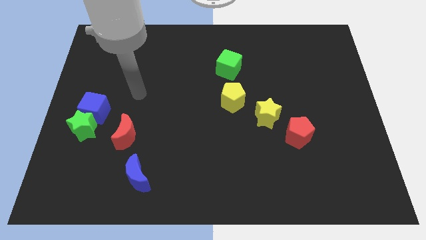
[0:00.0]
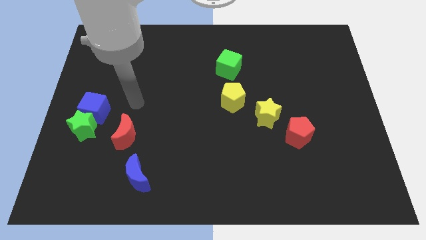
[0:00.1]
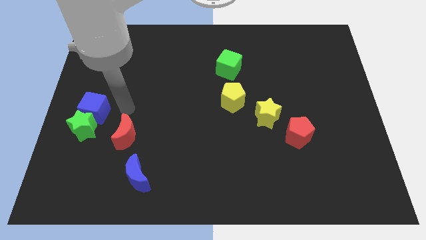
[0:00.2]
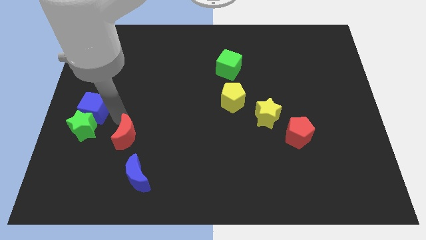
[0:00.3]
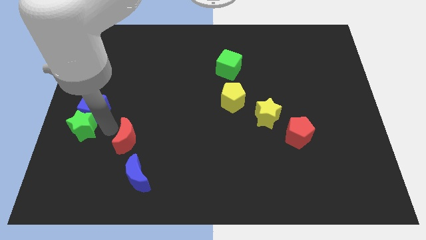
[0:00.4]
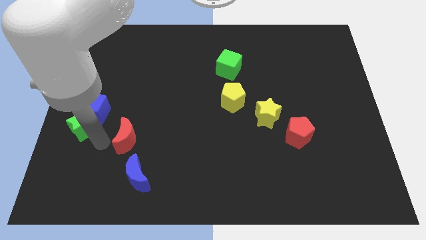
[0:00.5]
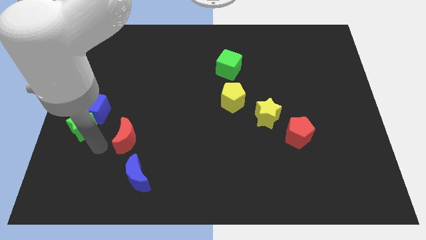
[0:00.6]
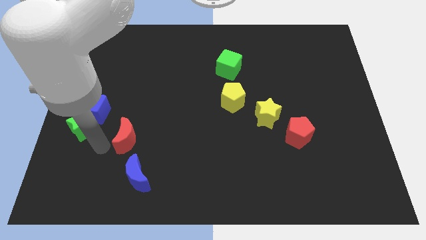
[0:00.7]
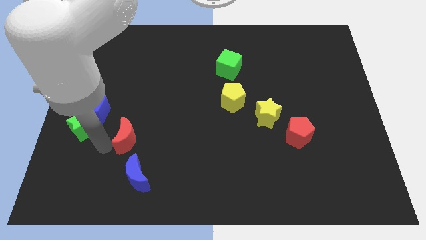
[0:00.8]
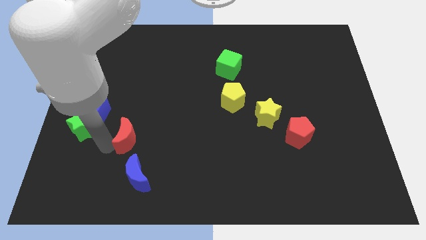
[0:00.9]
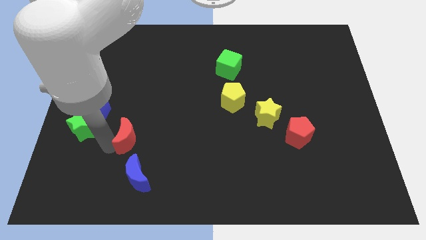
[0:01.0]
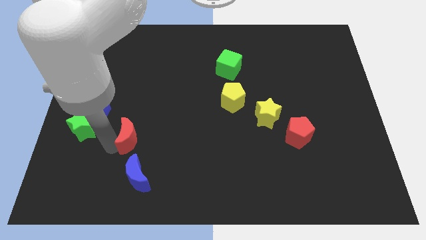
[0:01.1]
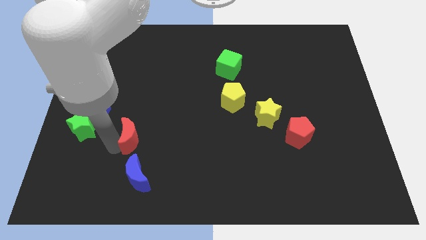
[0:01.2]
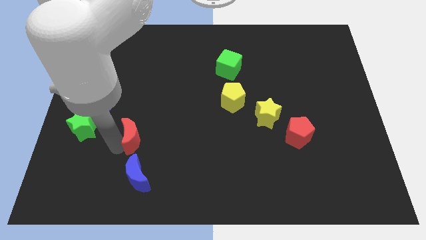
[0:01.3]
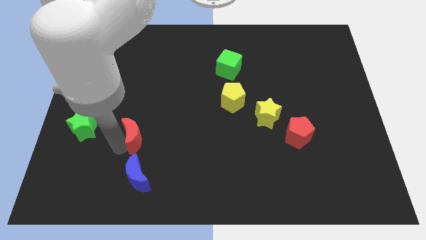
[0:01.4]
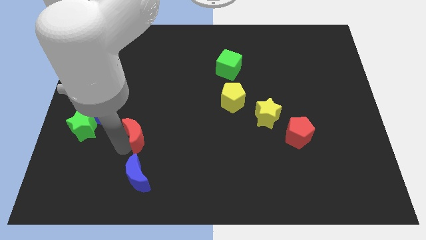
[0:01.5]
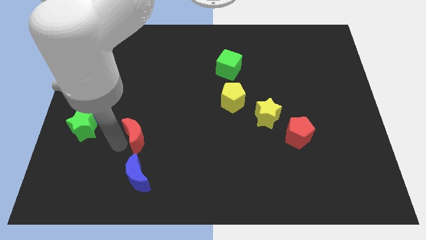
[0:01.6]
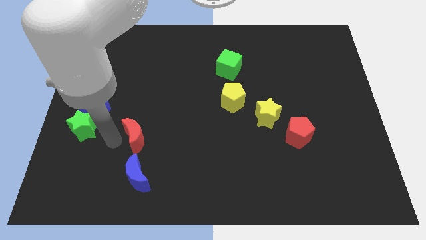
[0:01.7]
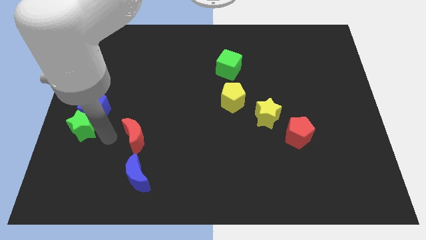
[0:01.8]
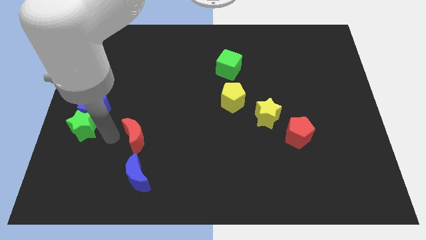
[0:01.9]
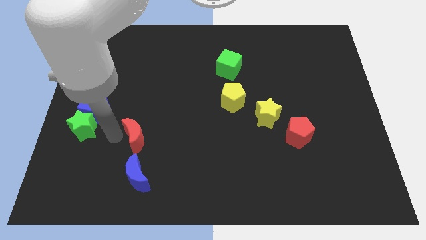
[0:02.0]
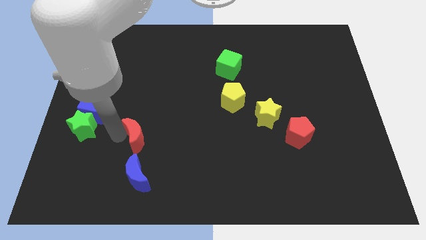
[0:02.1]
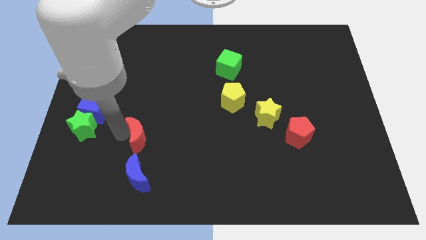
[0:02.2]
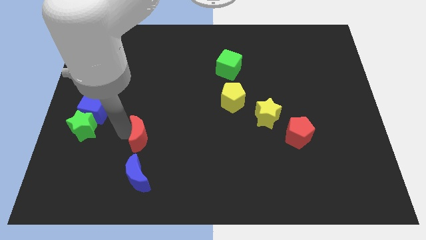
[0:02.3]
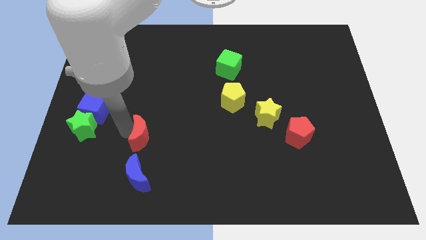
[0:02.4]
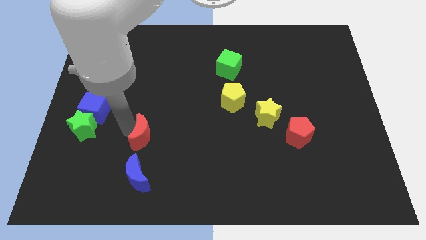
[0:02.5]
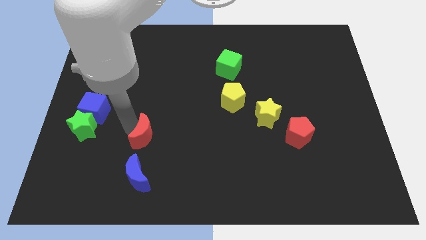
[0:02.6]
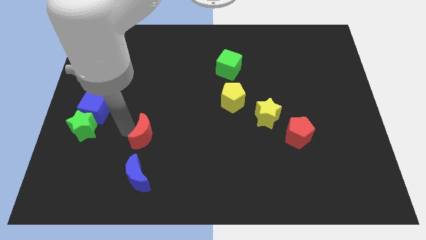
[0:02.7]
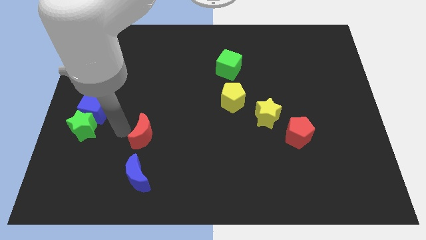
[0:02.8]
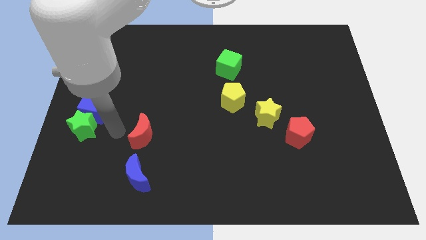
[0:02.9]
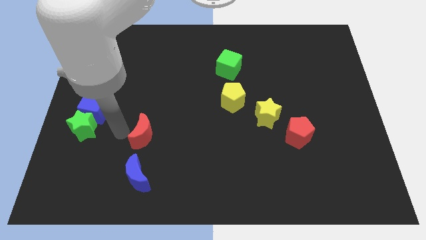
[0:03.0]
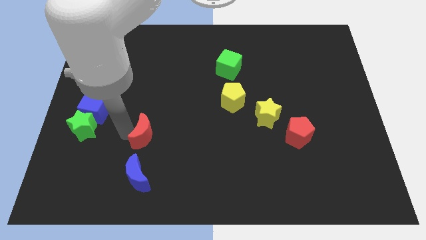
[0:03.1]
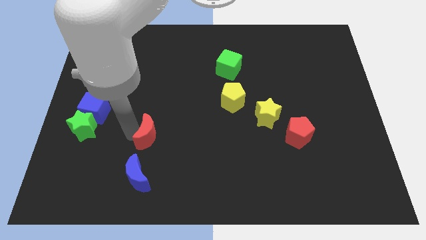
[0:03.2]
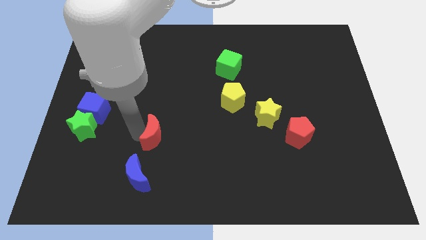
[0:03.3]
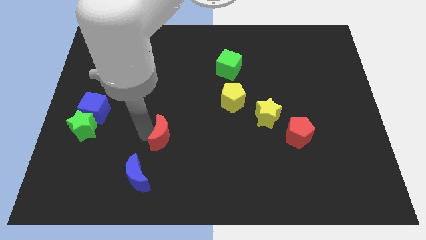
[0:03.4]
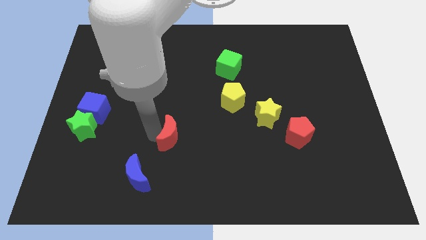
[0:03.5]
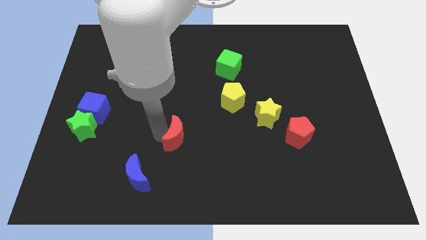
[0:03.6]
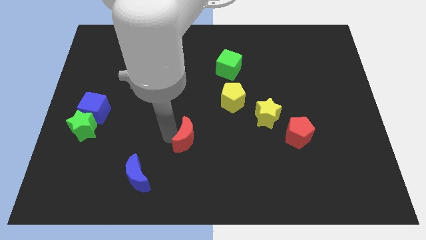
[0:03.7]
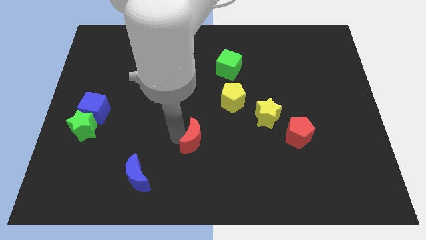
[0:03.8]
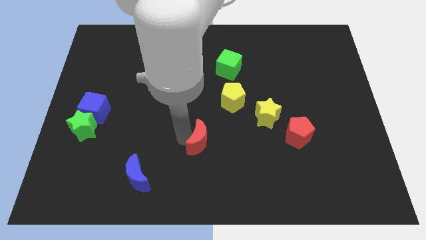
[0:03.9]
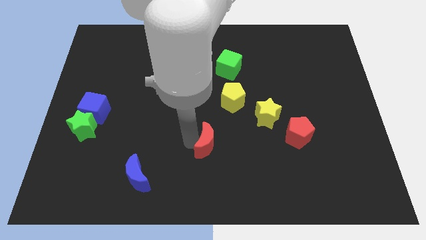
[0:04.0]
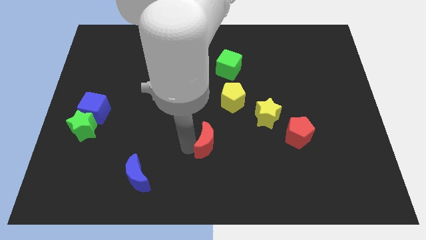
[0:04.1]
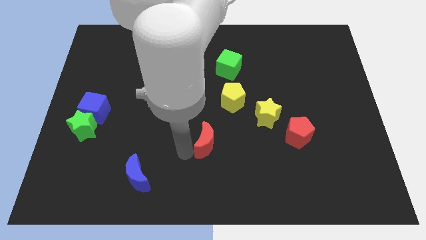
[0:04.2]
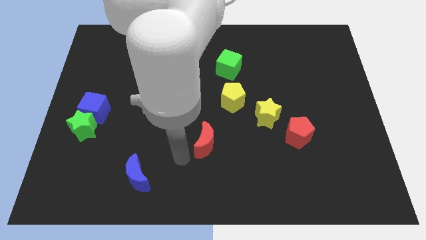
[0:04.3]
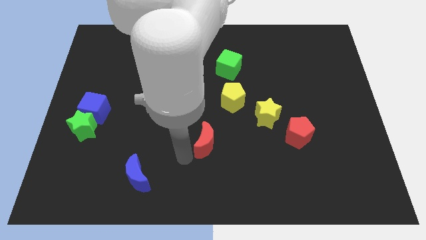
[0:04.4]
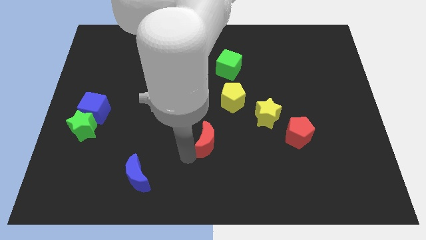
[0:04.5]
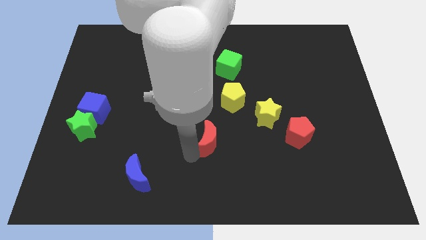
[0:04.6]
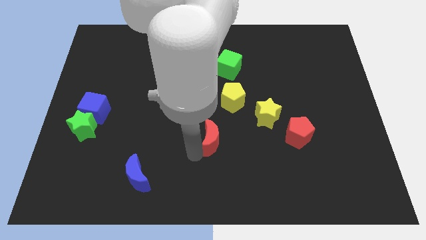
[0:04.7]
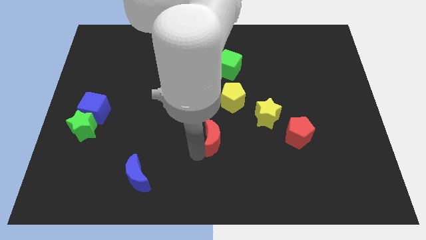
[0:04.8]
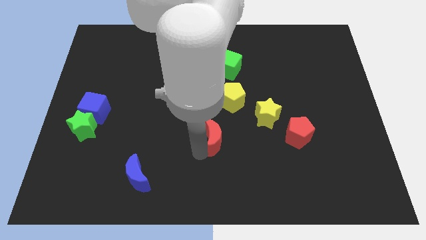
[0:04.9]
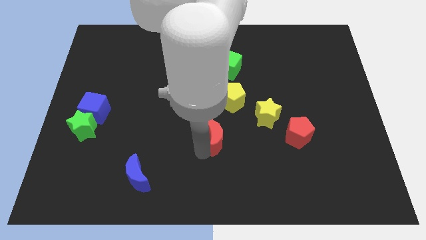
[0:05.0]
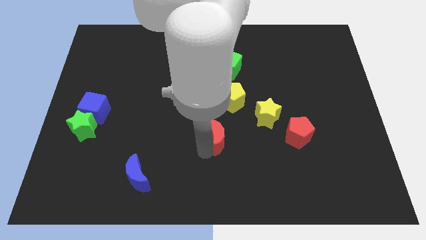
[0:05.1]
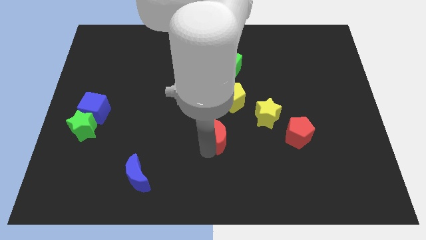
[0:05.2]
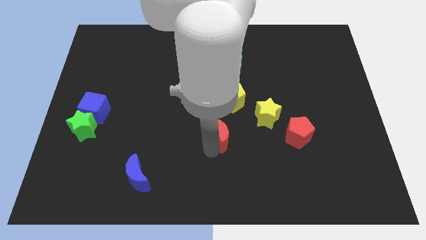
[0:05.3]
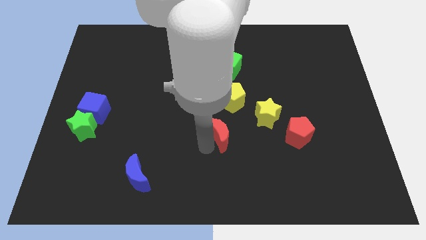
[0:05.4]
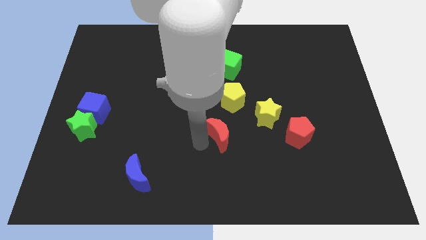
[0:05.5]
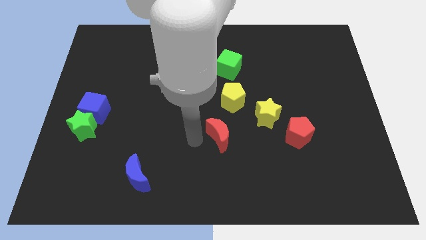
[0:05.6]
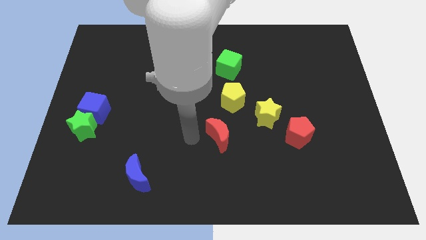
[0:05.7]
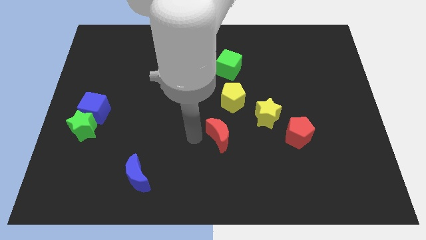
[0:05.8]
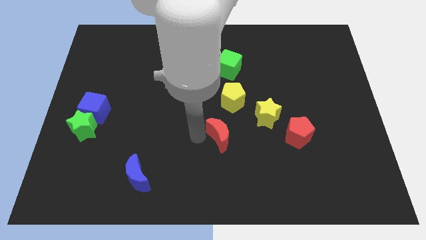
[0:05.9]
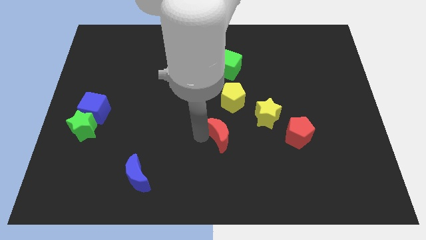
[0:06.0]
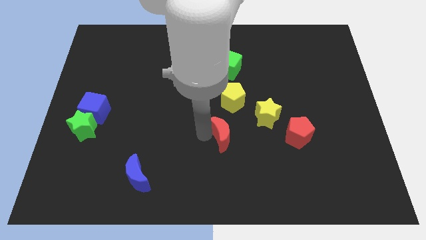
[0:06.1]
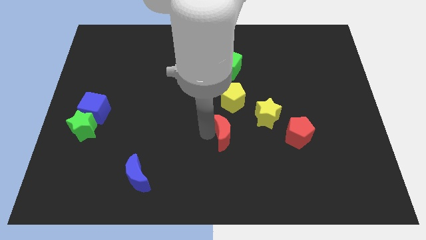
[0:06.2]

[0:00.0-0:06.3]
move the red moon left of the red pentagon

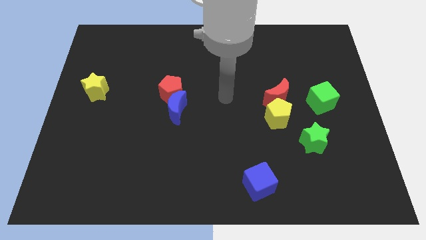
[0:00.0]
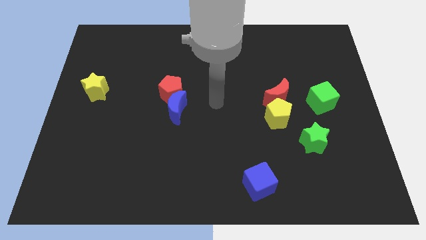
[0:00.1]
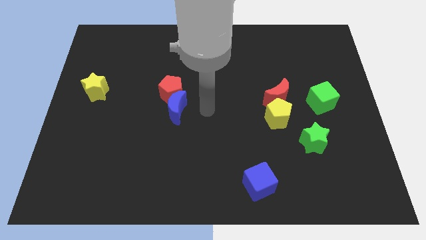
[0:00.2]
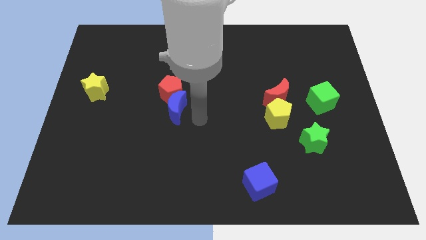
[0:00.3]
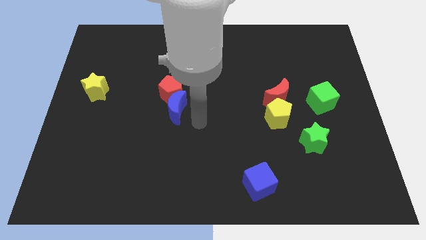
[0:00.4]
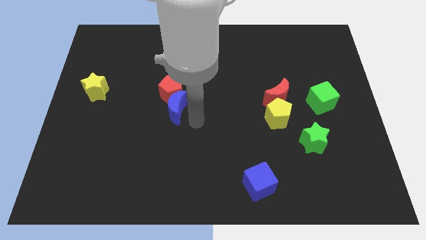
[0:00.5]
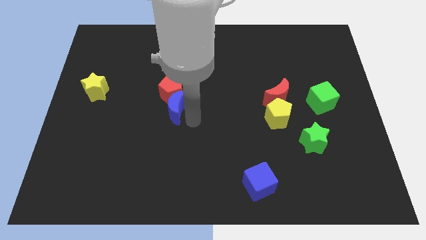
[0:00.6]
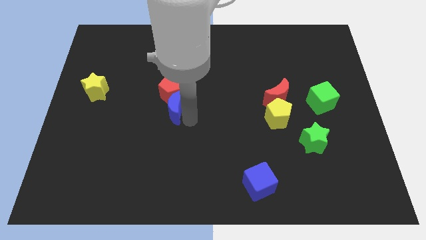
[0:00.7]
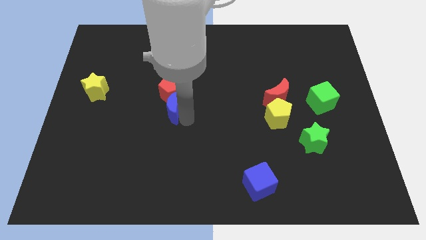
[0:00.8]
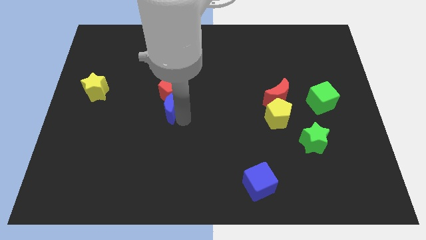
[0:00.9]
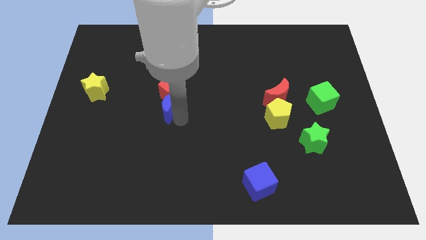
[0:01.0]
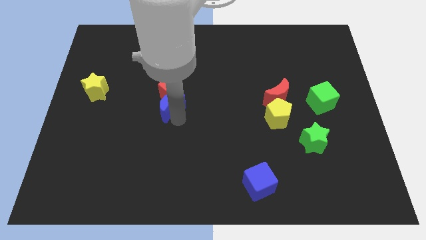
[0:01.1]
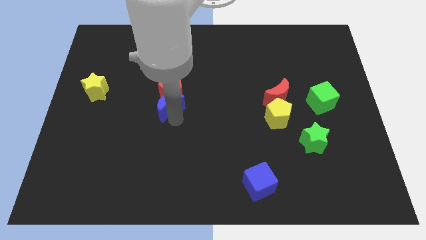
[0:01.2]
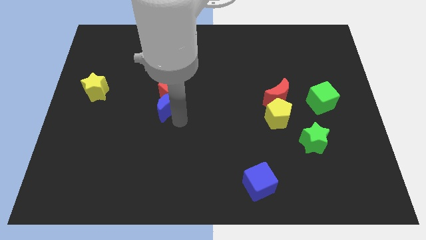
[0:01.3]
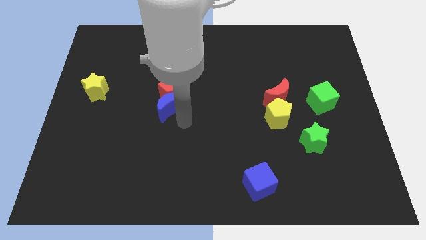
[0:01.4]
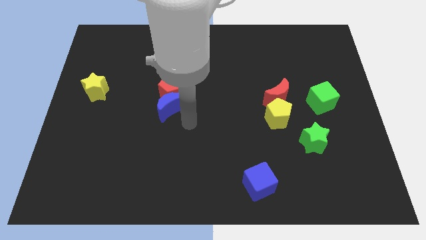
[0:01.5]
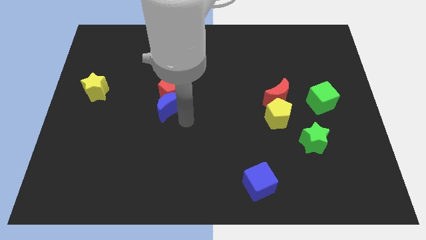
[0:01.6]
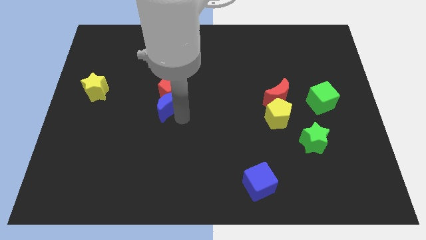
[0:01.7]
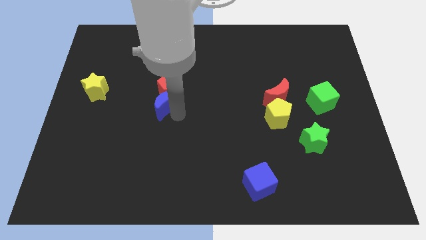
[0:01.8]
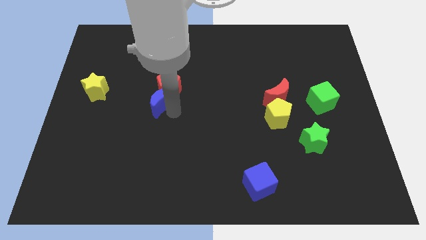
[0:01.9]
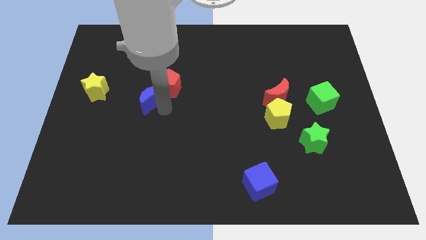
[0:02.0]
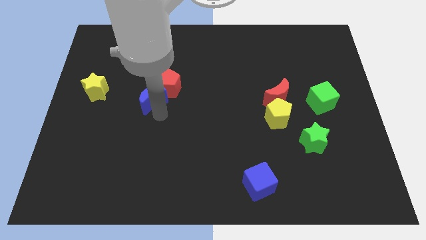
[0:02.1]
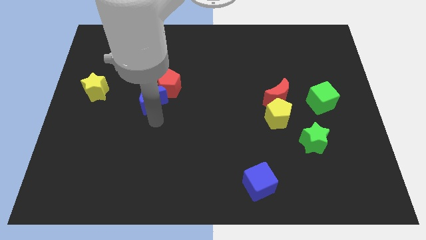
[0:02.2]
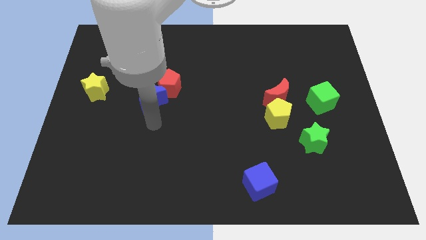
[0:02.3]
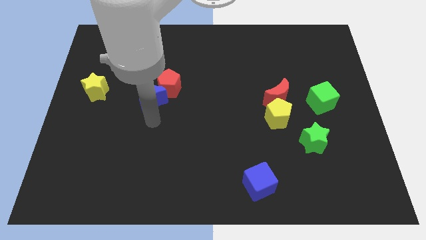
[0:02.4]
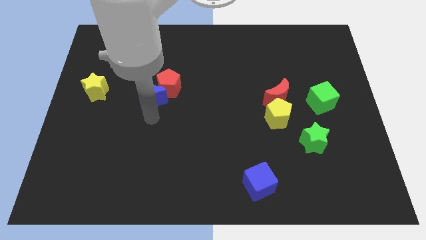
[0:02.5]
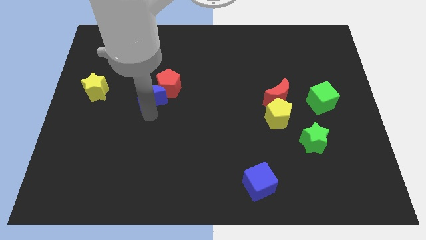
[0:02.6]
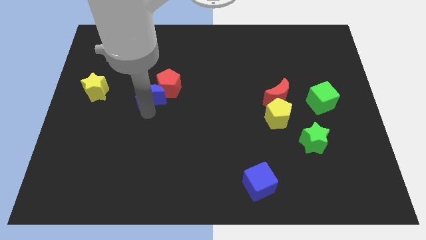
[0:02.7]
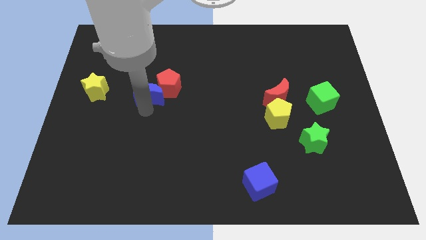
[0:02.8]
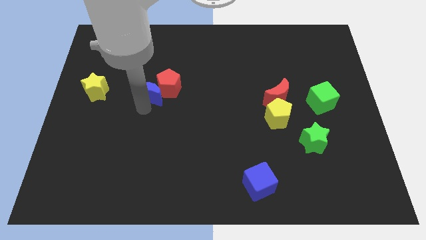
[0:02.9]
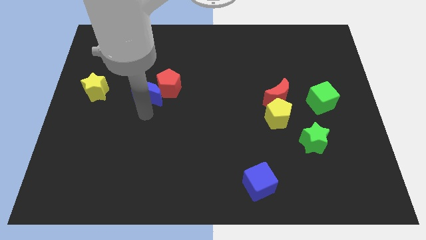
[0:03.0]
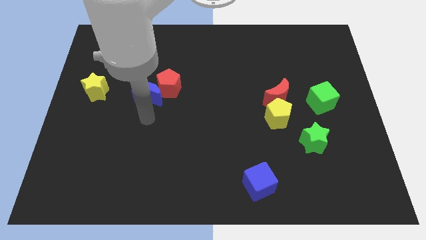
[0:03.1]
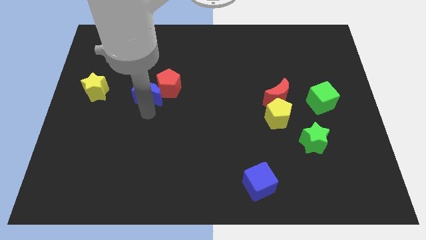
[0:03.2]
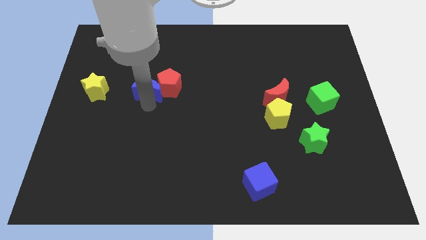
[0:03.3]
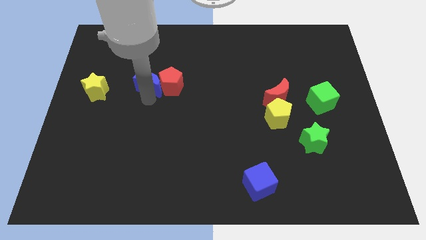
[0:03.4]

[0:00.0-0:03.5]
put the blue moon to the top left of the red pentagon
